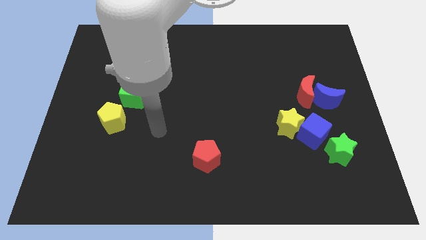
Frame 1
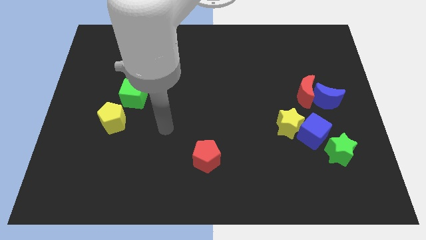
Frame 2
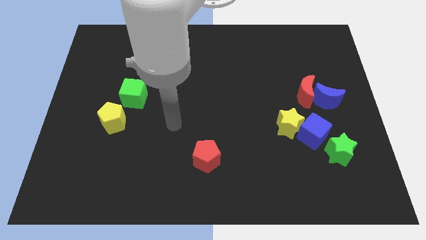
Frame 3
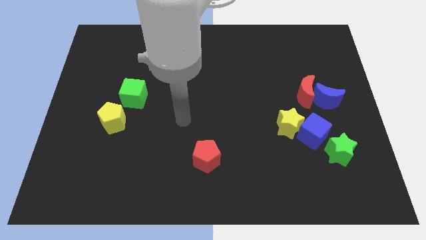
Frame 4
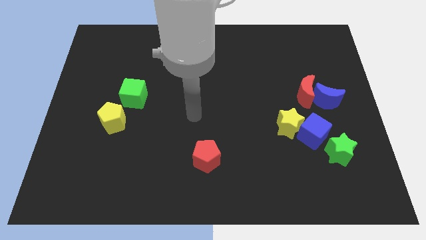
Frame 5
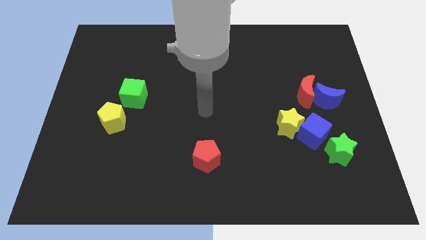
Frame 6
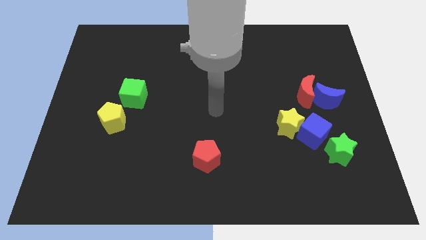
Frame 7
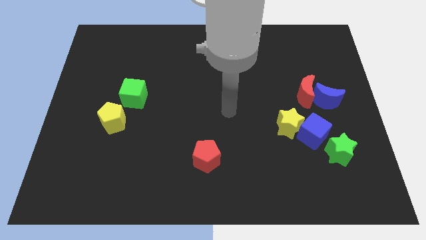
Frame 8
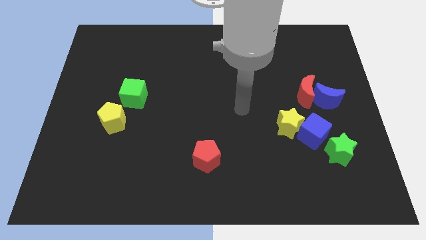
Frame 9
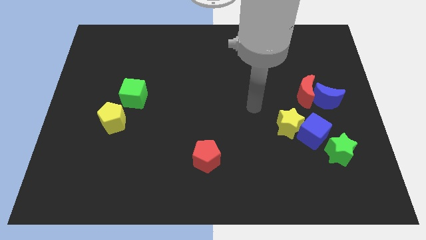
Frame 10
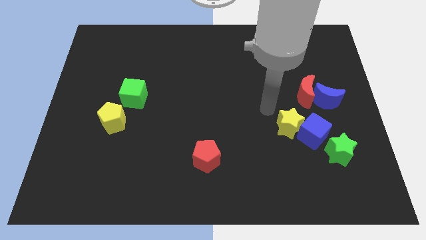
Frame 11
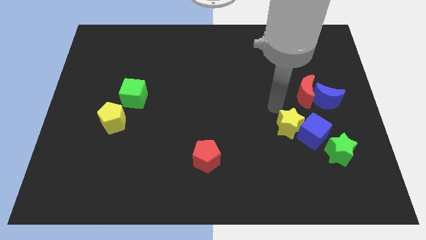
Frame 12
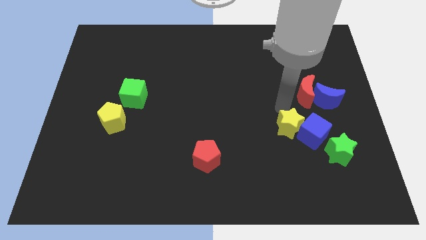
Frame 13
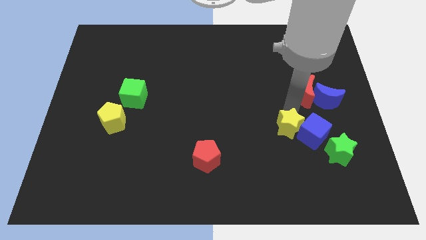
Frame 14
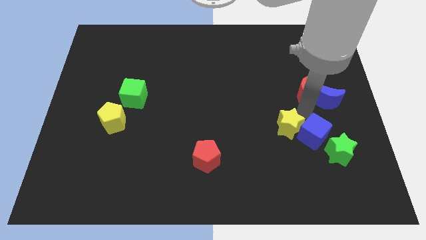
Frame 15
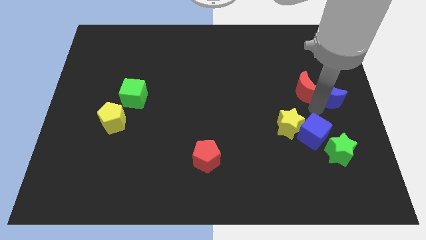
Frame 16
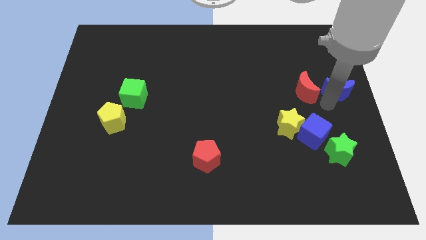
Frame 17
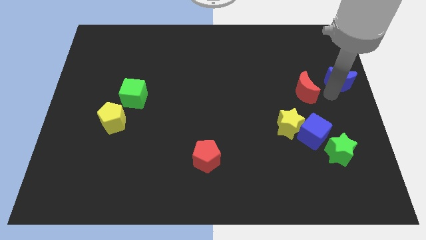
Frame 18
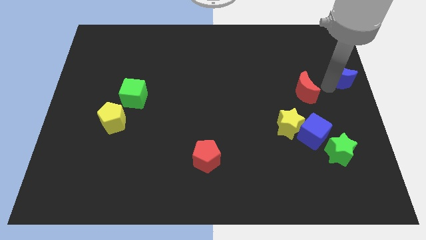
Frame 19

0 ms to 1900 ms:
move the red moon away from the blue moon

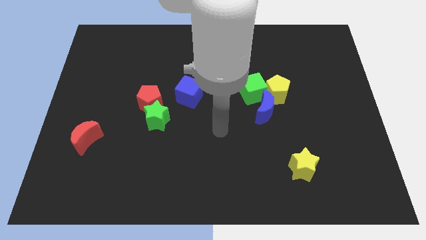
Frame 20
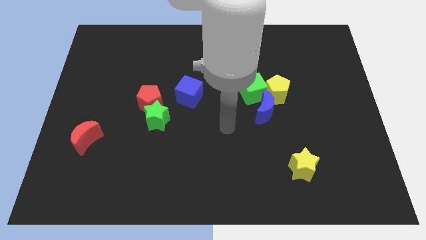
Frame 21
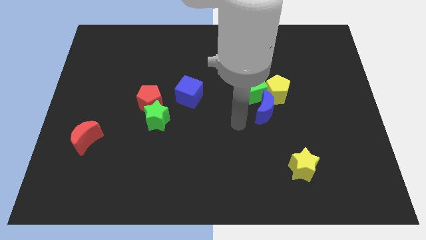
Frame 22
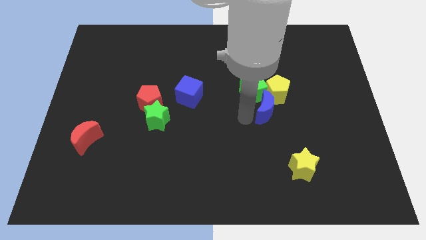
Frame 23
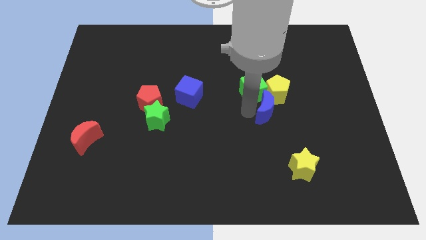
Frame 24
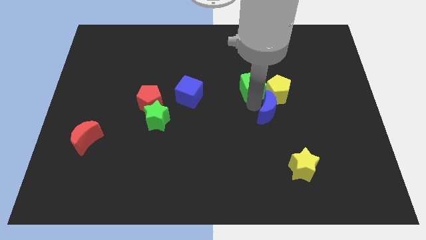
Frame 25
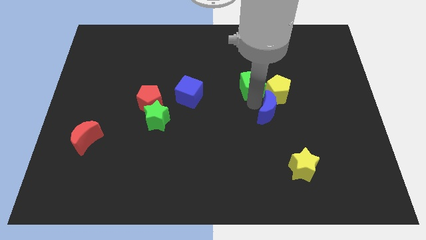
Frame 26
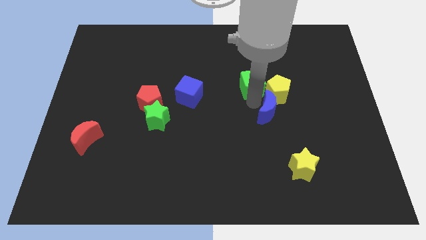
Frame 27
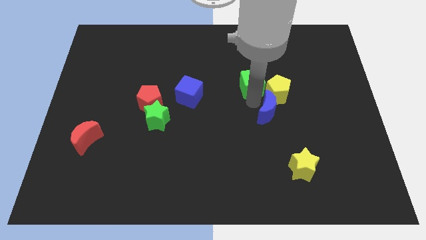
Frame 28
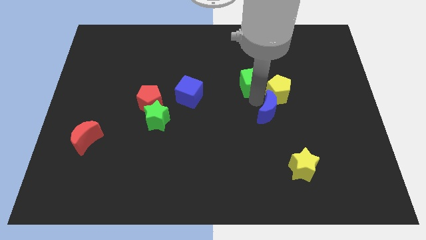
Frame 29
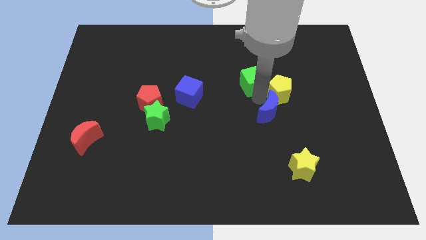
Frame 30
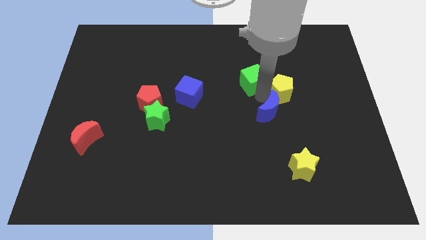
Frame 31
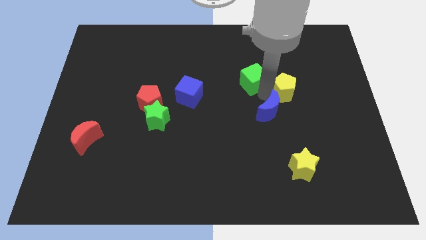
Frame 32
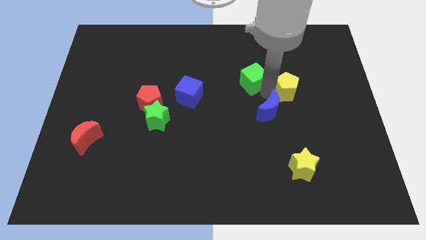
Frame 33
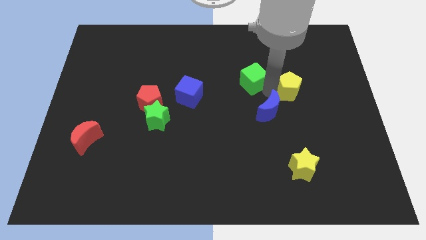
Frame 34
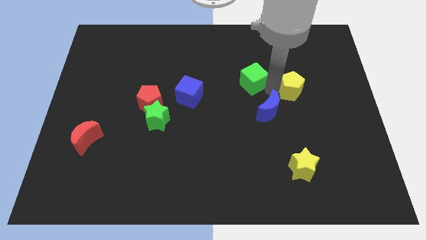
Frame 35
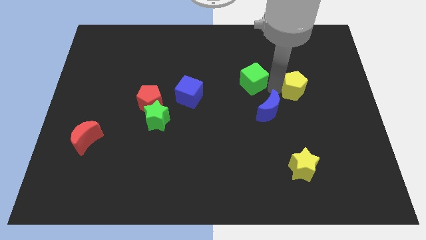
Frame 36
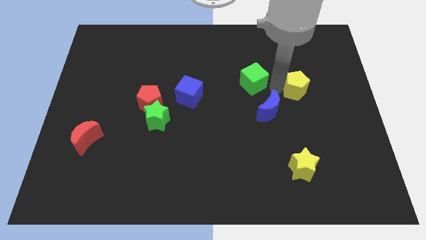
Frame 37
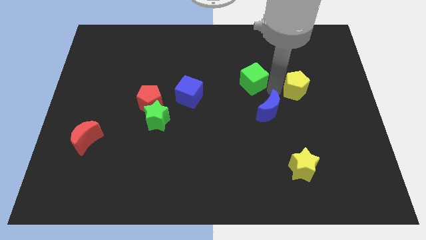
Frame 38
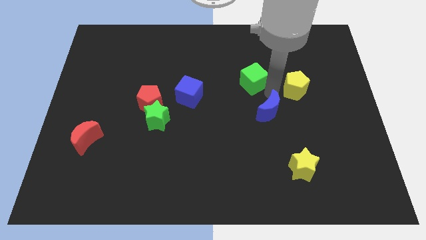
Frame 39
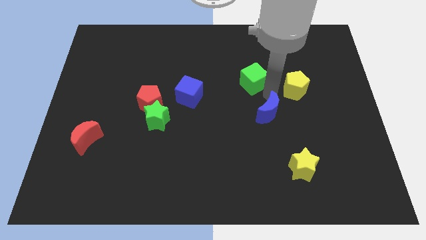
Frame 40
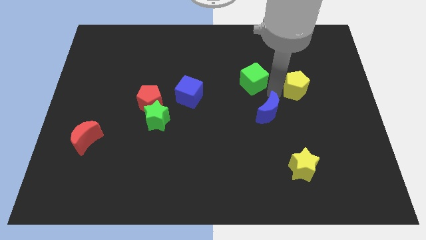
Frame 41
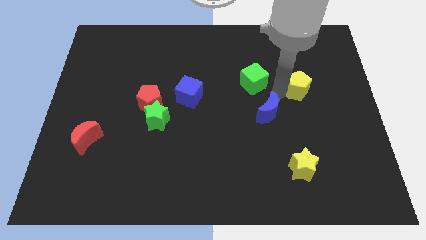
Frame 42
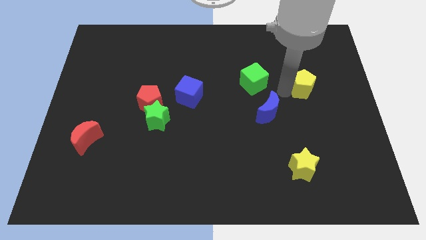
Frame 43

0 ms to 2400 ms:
move the yellow pentagon away from the green cube and blue moon

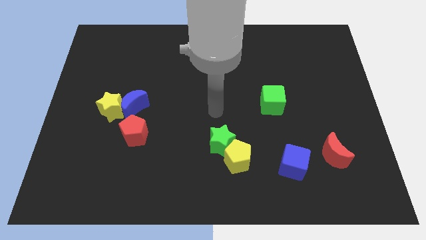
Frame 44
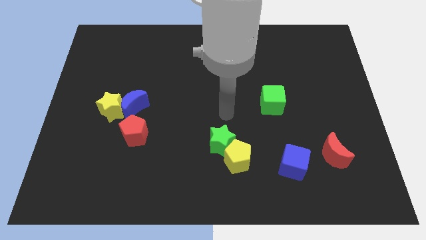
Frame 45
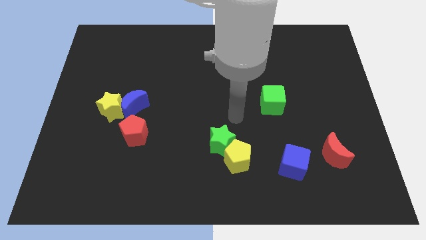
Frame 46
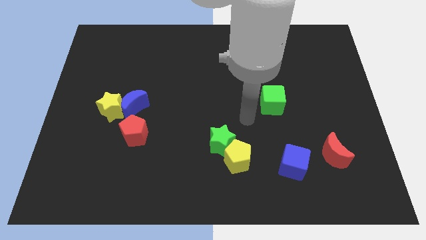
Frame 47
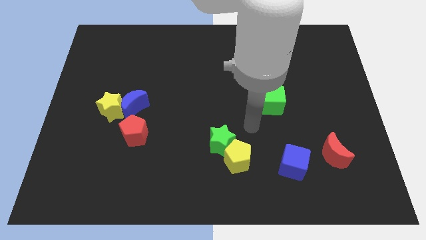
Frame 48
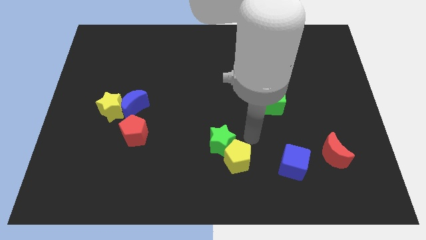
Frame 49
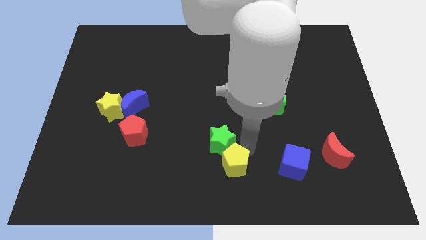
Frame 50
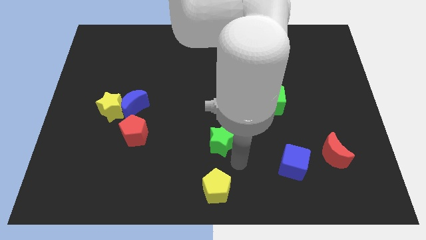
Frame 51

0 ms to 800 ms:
move the green star away from the yellow pentagon

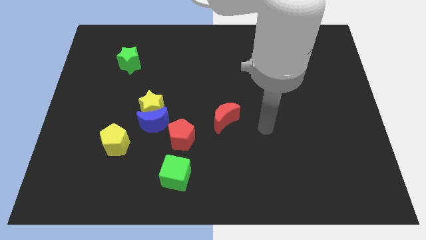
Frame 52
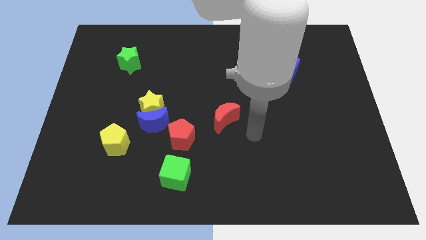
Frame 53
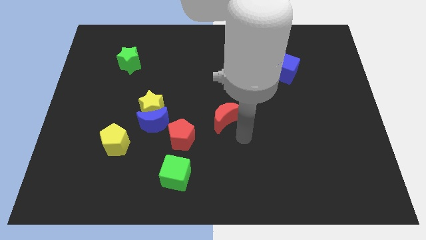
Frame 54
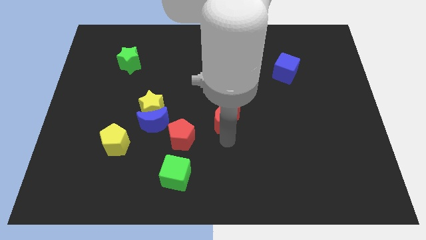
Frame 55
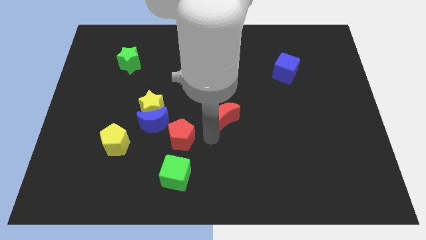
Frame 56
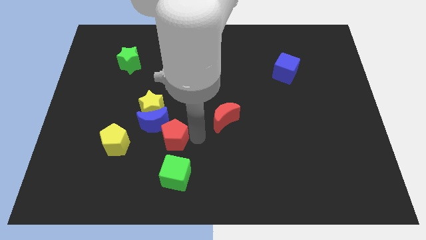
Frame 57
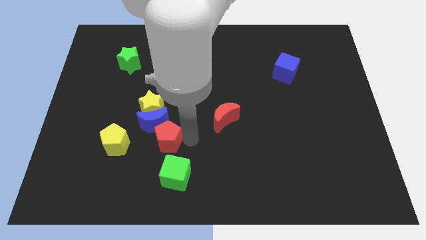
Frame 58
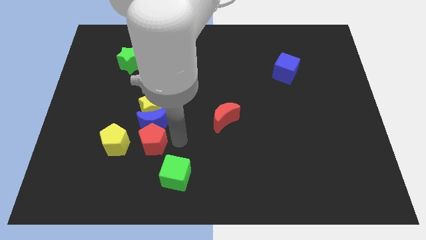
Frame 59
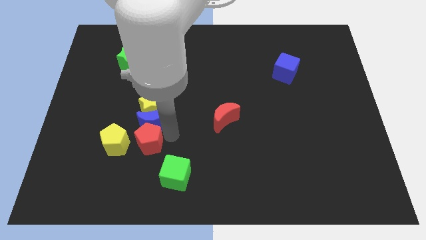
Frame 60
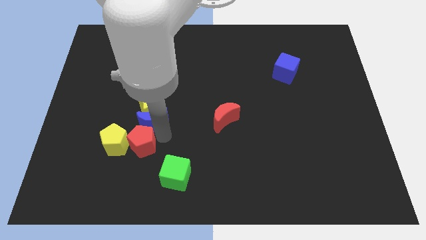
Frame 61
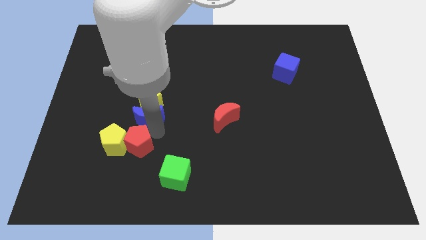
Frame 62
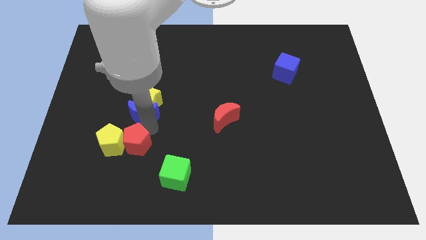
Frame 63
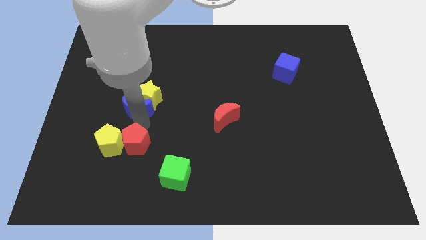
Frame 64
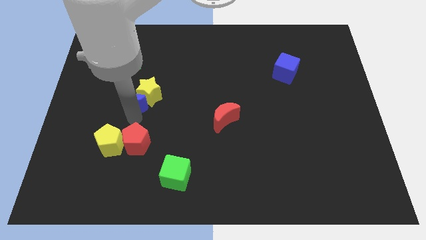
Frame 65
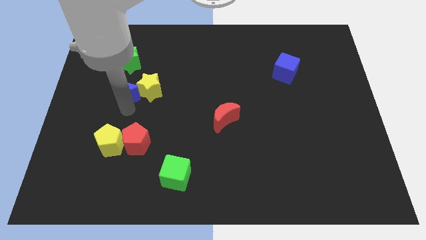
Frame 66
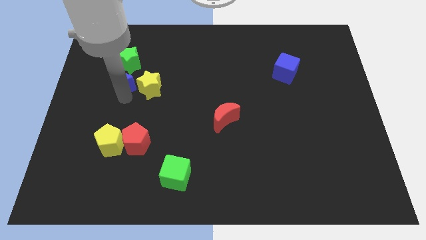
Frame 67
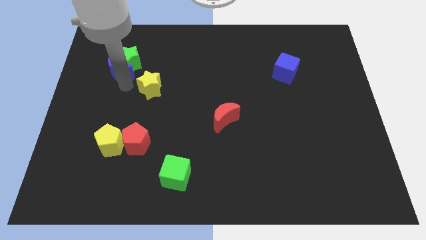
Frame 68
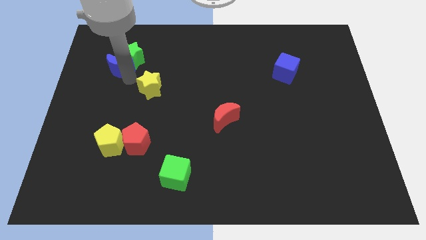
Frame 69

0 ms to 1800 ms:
separate the yellow star from the blue moon

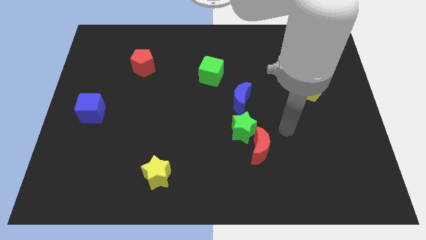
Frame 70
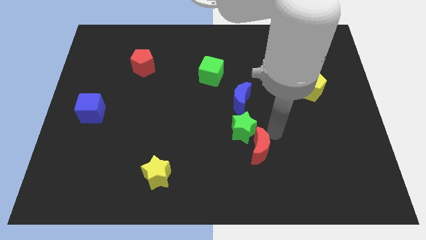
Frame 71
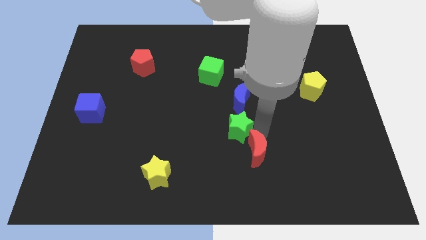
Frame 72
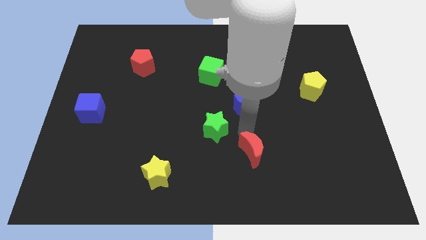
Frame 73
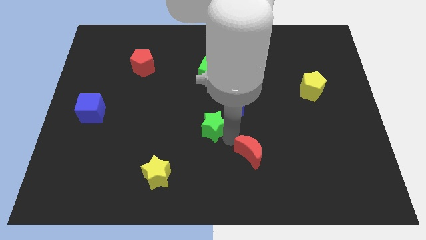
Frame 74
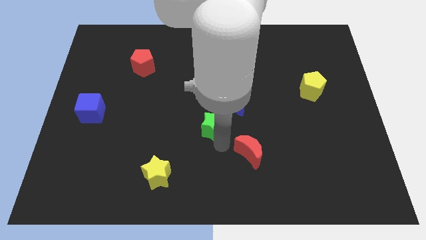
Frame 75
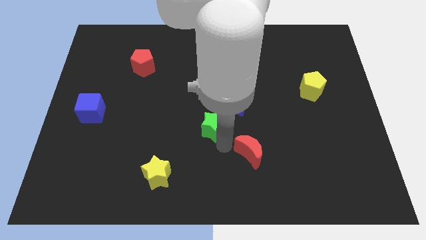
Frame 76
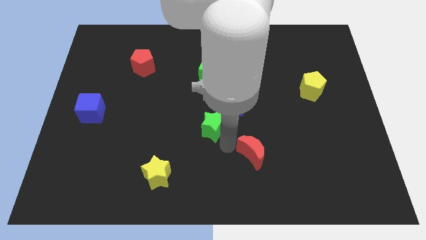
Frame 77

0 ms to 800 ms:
move the red moon away from the green star

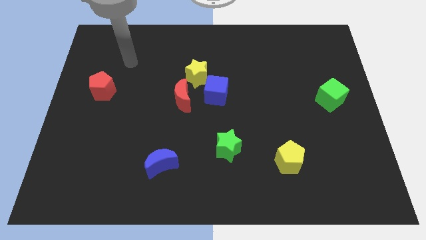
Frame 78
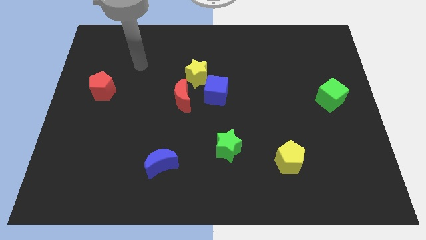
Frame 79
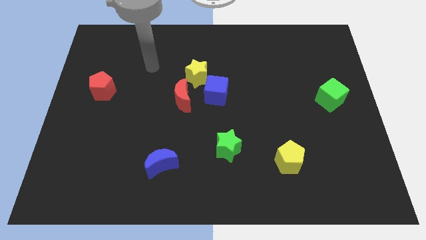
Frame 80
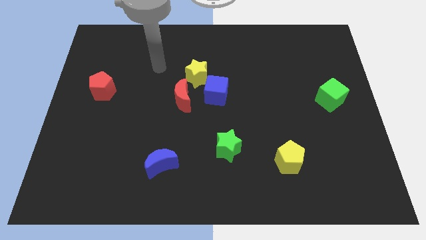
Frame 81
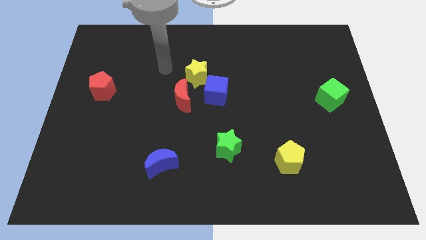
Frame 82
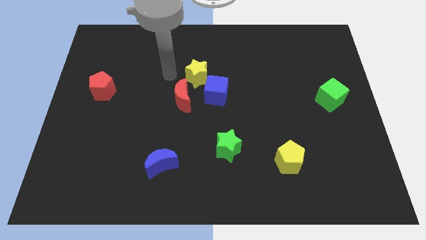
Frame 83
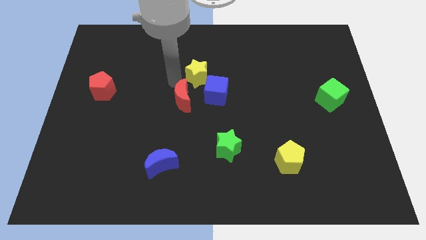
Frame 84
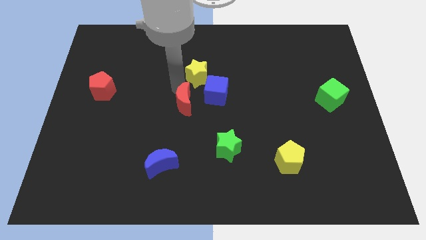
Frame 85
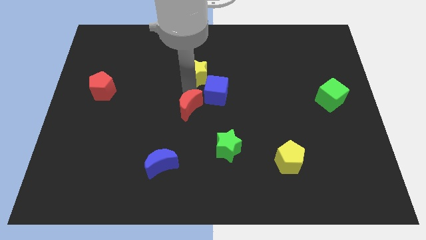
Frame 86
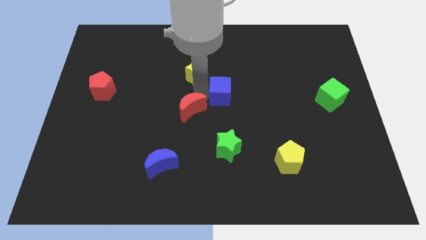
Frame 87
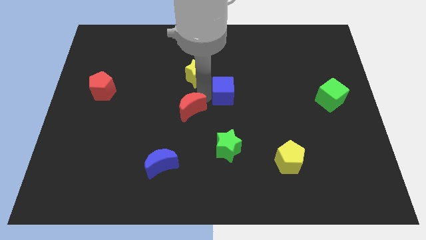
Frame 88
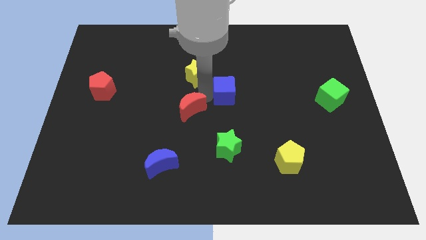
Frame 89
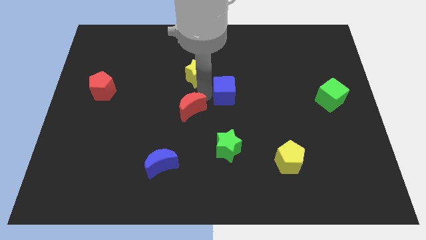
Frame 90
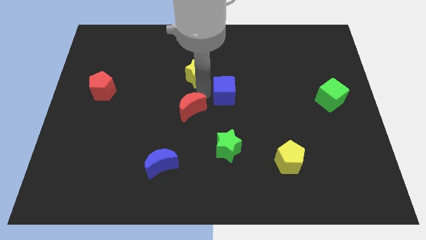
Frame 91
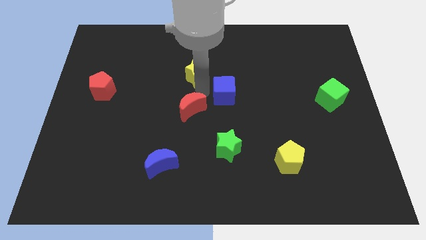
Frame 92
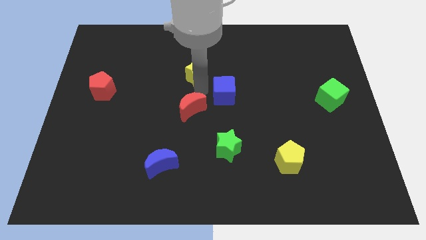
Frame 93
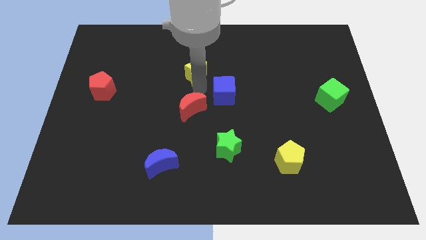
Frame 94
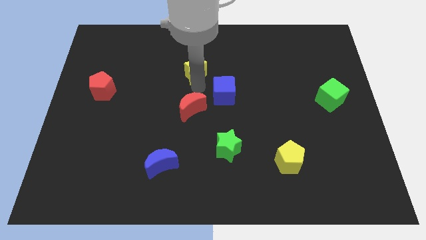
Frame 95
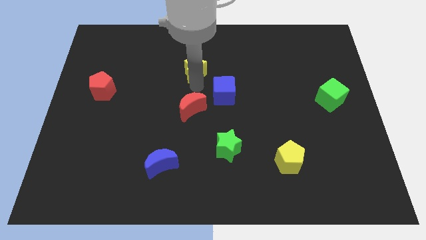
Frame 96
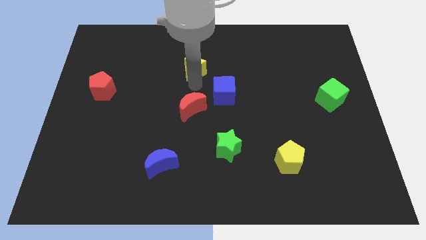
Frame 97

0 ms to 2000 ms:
pull the yellow star apart from the blue cube and red moon
